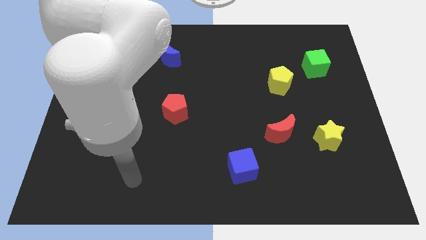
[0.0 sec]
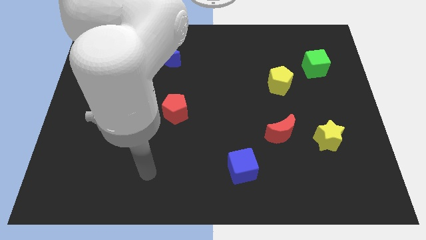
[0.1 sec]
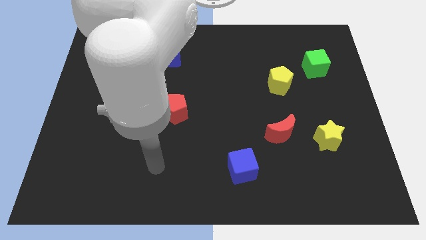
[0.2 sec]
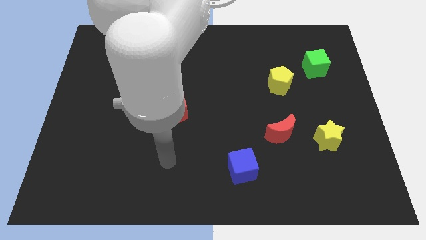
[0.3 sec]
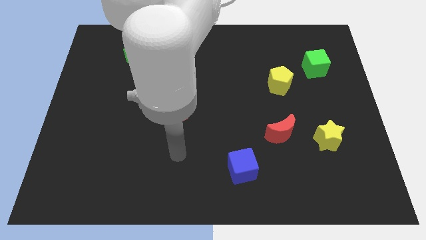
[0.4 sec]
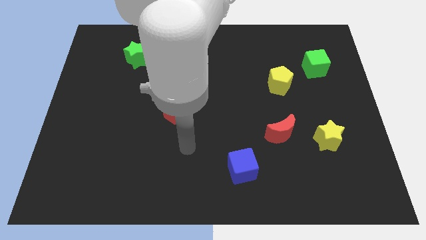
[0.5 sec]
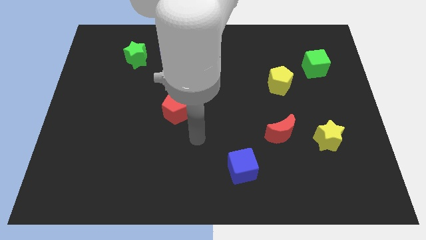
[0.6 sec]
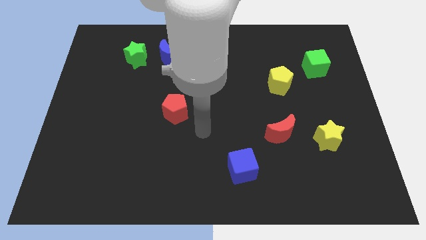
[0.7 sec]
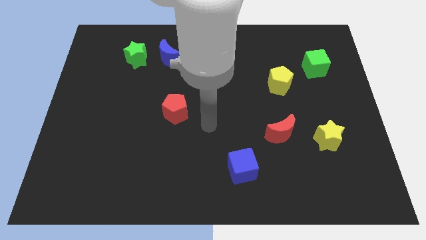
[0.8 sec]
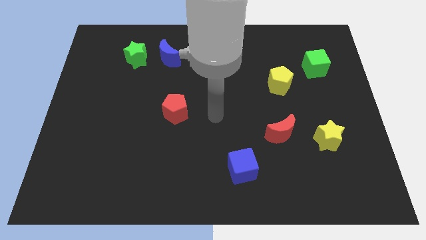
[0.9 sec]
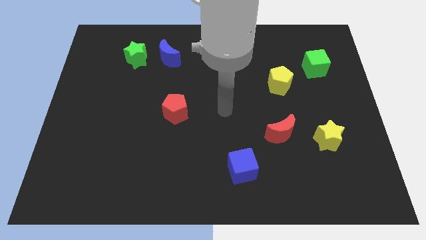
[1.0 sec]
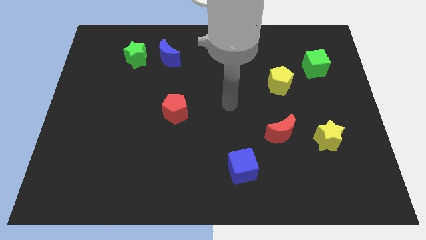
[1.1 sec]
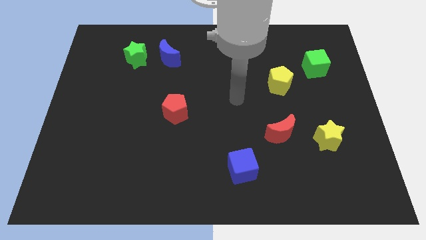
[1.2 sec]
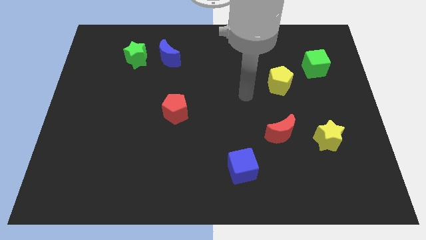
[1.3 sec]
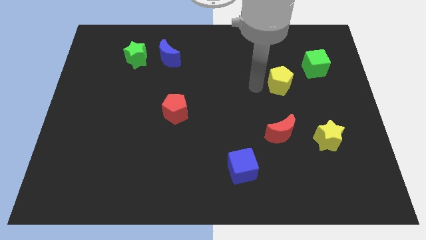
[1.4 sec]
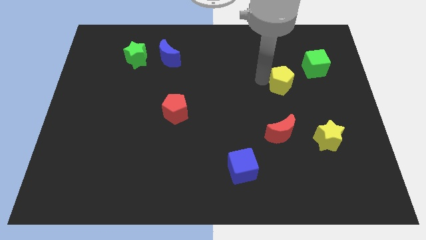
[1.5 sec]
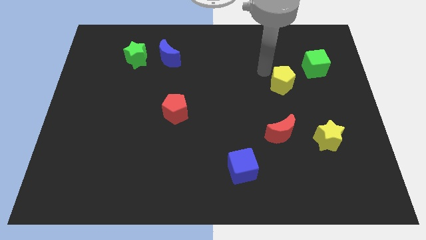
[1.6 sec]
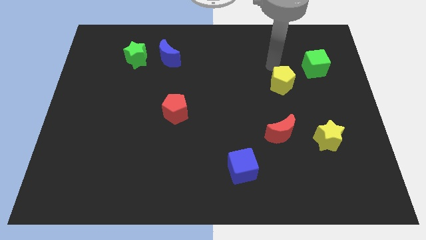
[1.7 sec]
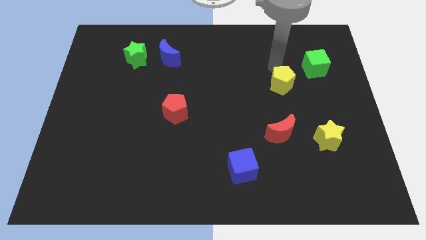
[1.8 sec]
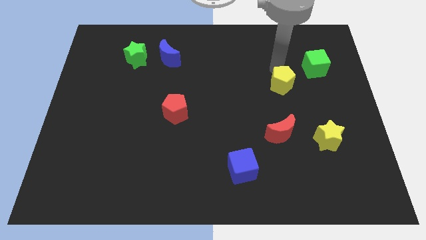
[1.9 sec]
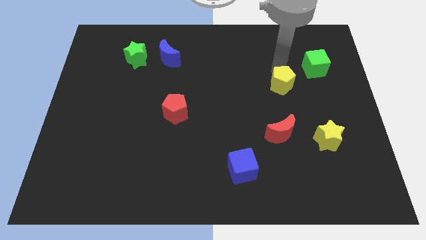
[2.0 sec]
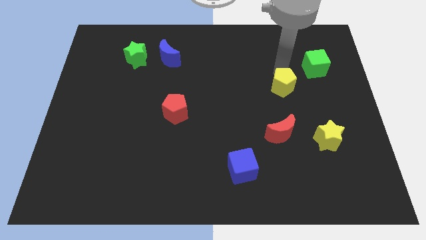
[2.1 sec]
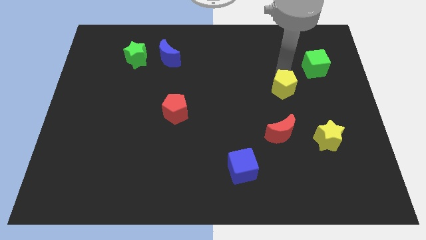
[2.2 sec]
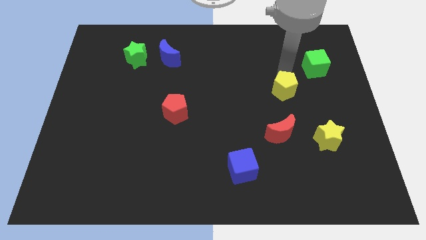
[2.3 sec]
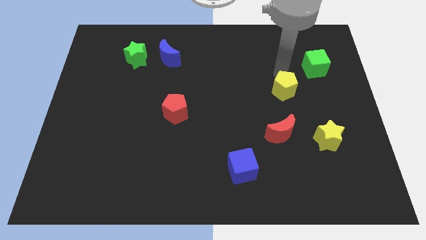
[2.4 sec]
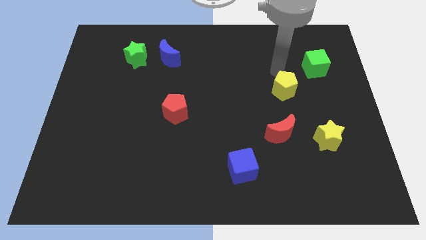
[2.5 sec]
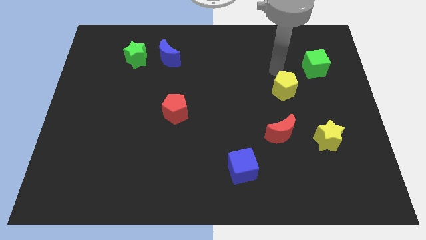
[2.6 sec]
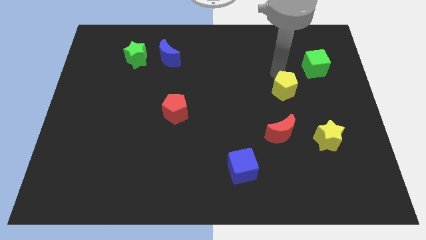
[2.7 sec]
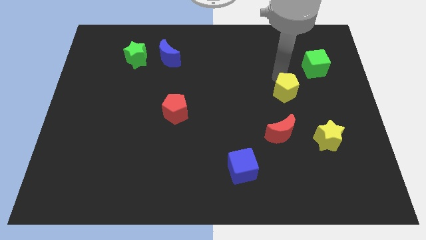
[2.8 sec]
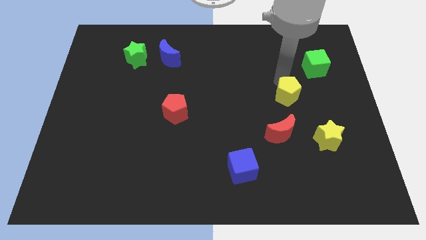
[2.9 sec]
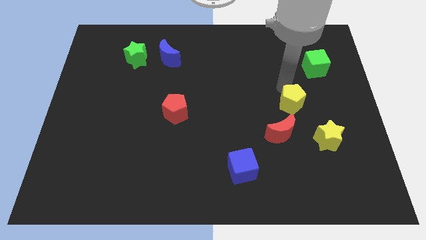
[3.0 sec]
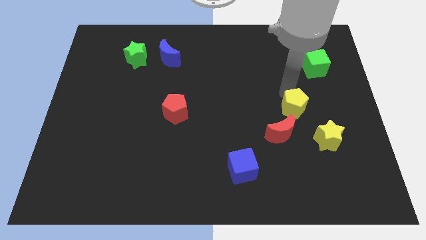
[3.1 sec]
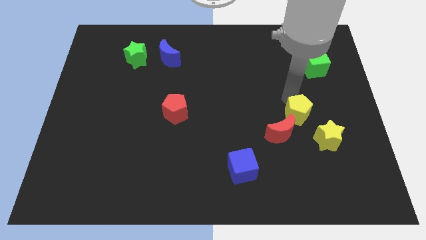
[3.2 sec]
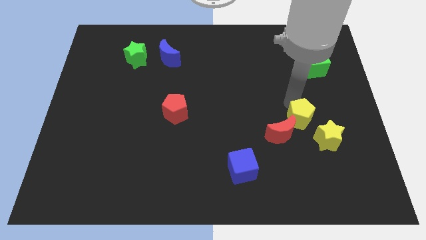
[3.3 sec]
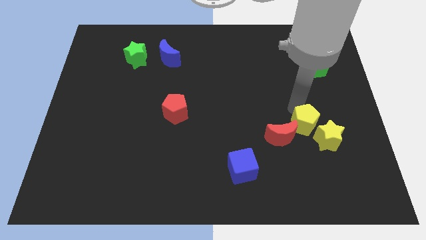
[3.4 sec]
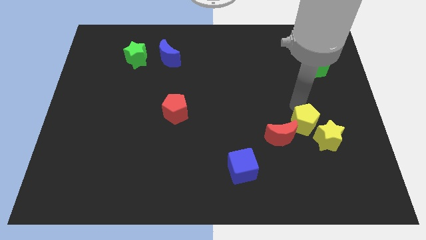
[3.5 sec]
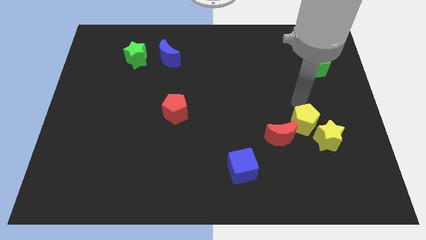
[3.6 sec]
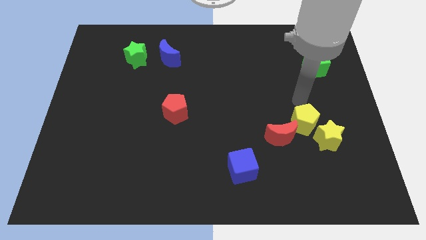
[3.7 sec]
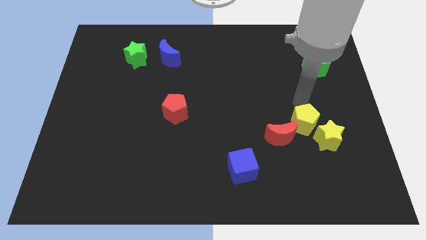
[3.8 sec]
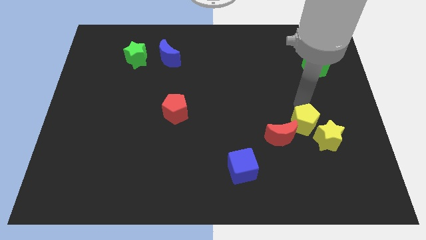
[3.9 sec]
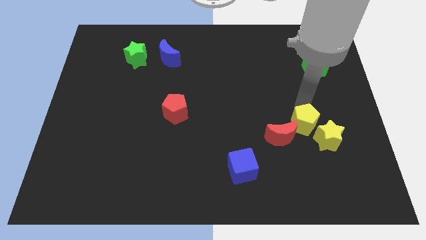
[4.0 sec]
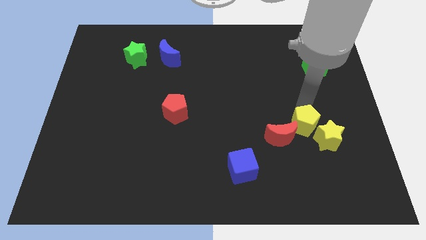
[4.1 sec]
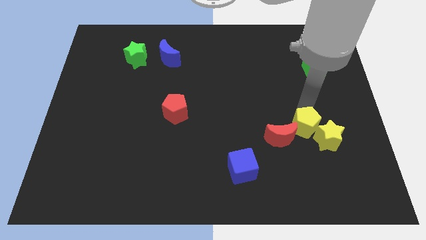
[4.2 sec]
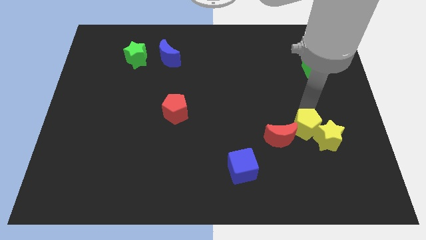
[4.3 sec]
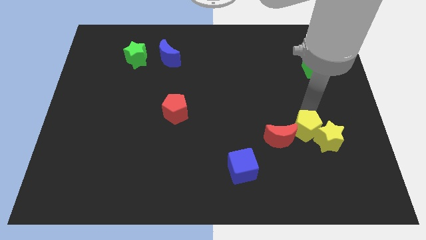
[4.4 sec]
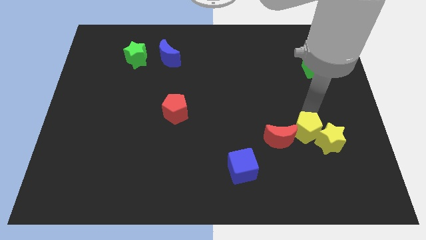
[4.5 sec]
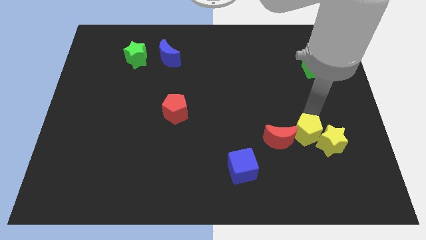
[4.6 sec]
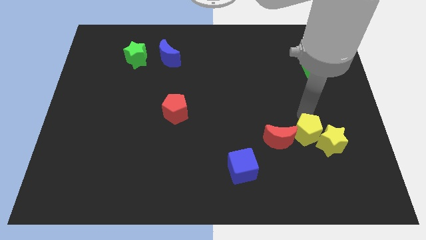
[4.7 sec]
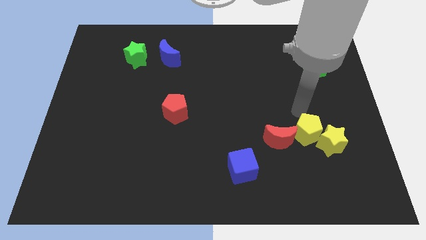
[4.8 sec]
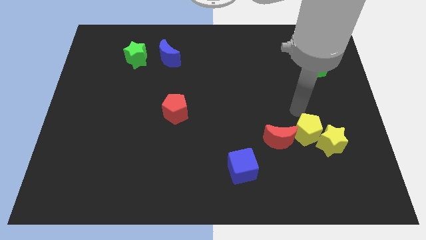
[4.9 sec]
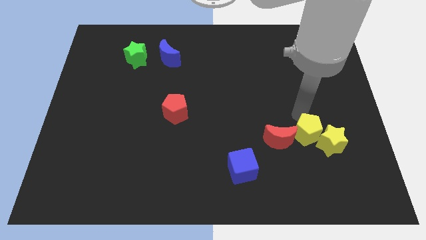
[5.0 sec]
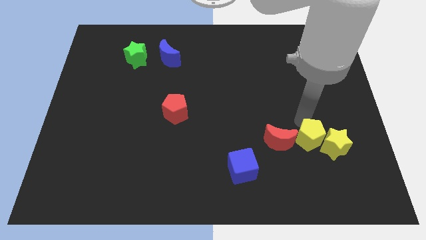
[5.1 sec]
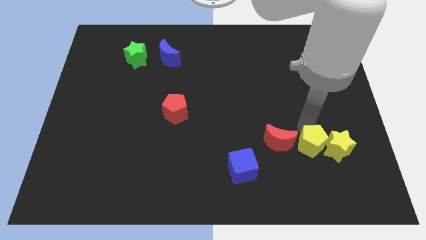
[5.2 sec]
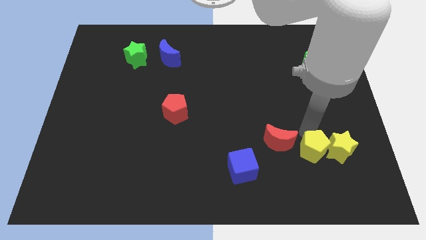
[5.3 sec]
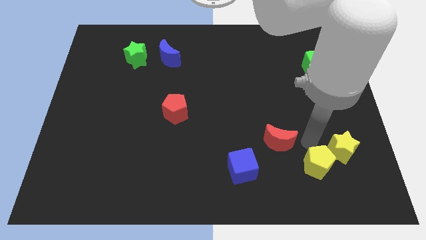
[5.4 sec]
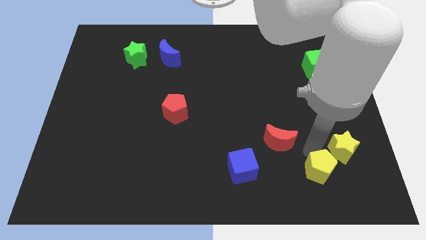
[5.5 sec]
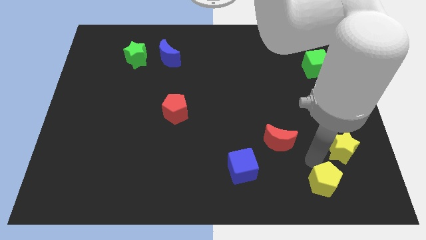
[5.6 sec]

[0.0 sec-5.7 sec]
put the yellow pentagon to the bottom side of the yellow star

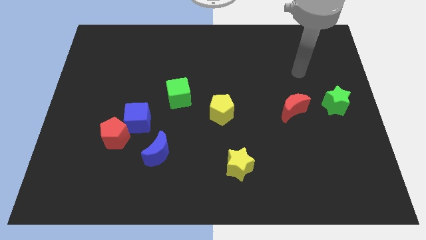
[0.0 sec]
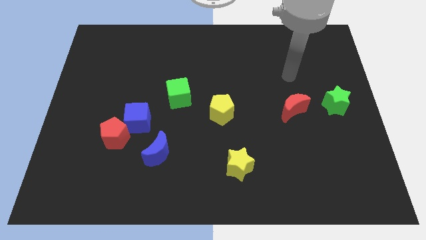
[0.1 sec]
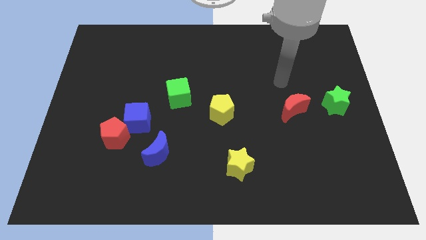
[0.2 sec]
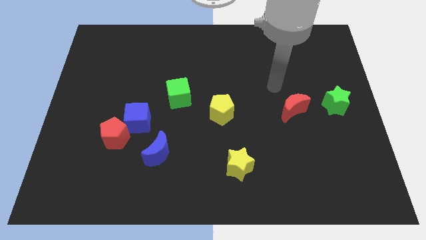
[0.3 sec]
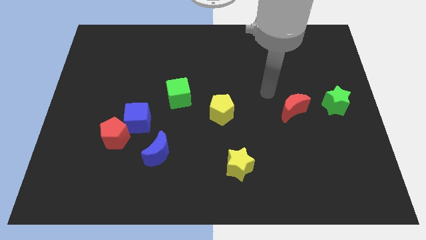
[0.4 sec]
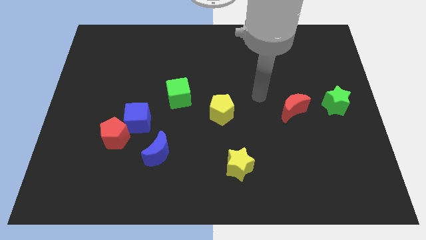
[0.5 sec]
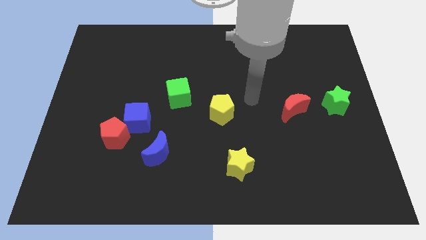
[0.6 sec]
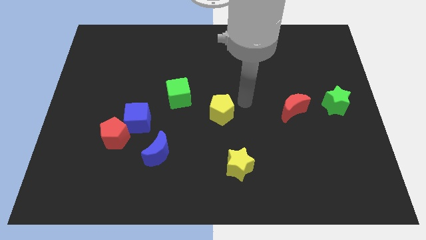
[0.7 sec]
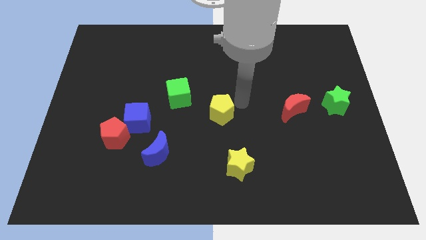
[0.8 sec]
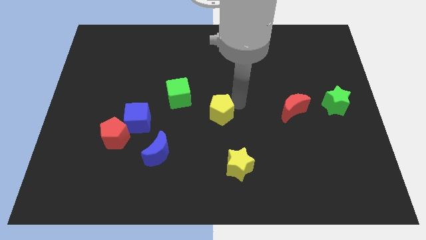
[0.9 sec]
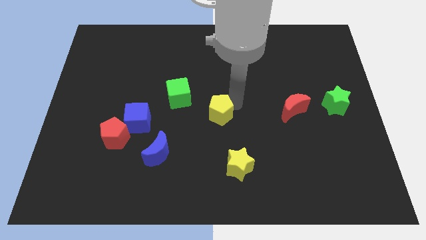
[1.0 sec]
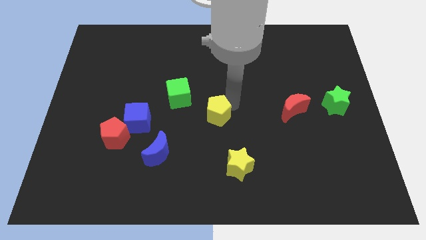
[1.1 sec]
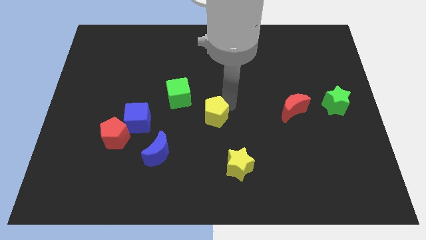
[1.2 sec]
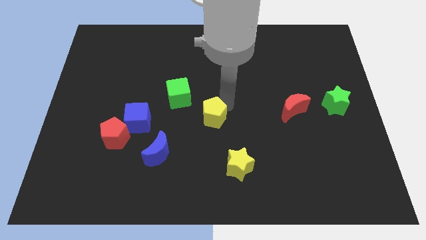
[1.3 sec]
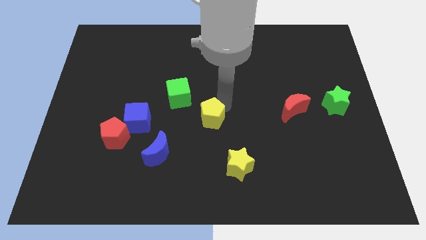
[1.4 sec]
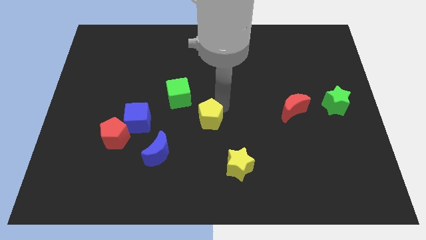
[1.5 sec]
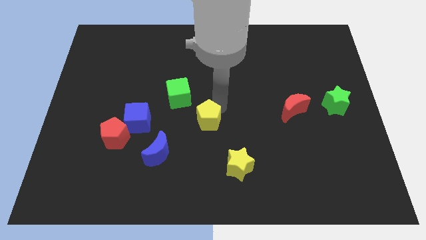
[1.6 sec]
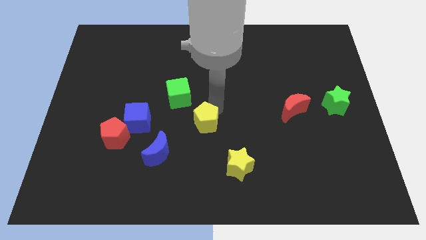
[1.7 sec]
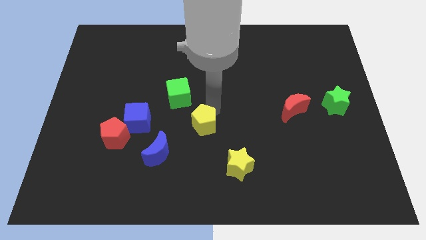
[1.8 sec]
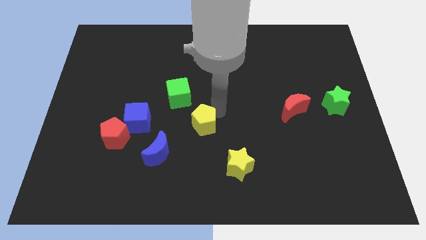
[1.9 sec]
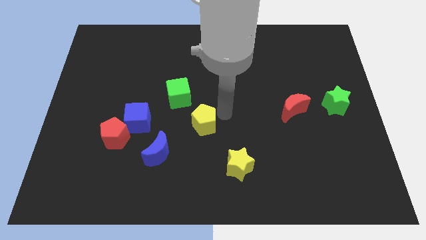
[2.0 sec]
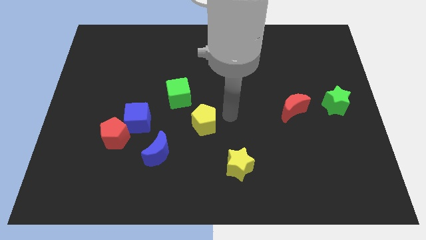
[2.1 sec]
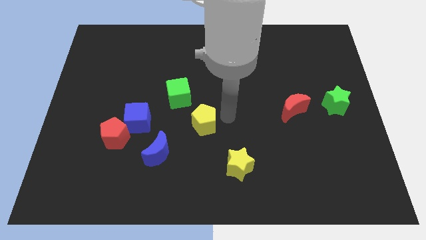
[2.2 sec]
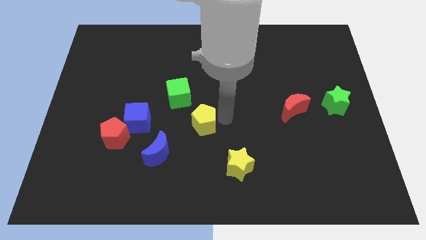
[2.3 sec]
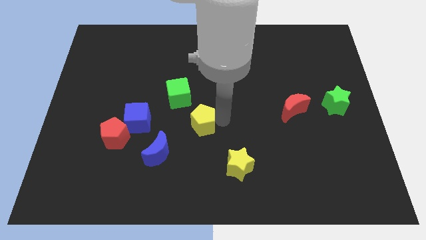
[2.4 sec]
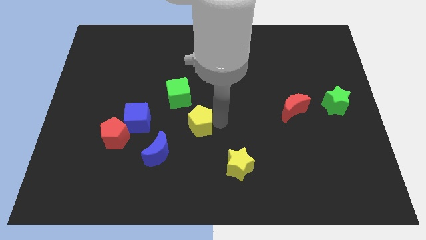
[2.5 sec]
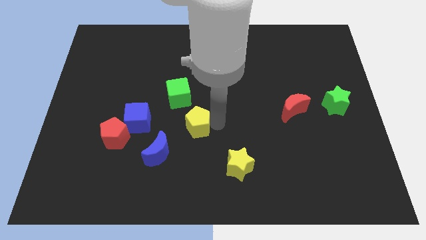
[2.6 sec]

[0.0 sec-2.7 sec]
slide the yellow pentagon to the bottom of the green cube
